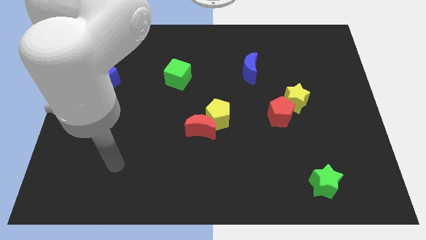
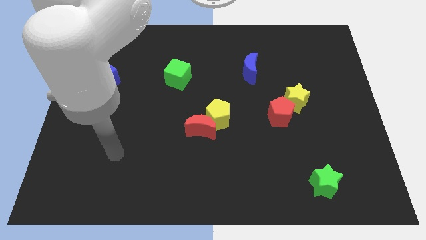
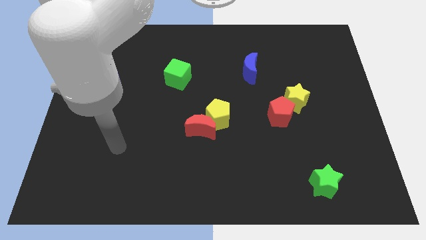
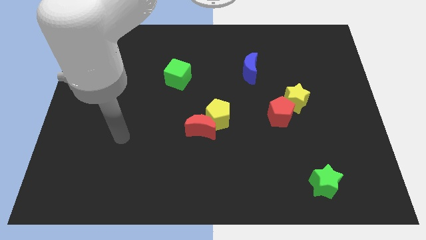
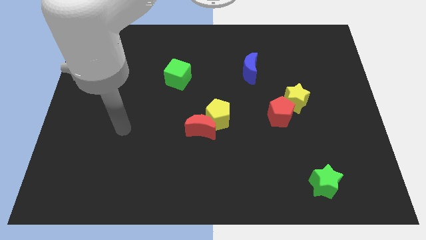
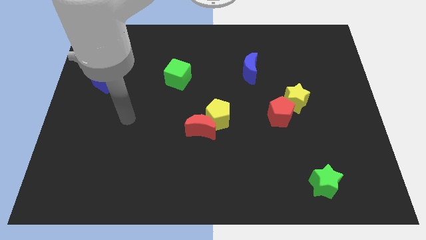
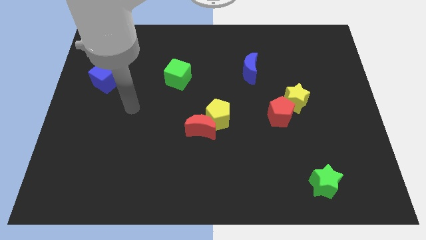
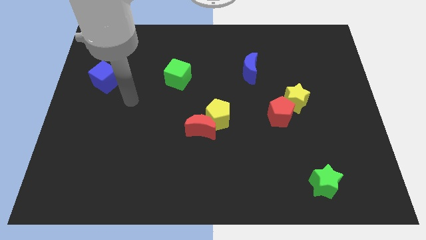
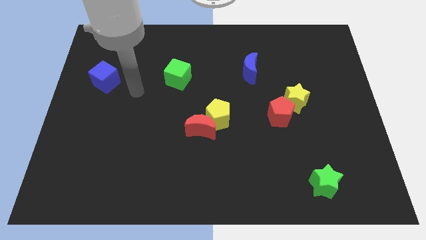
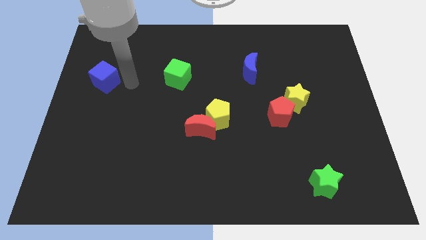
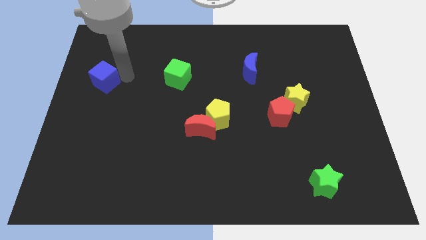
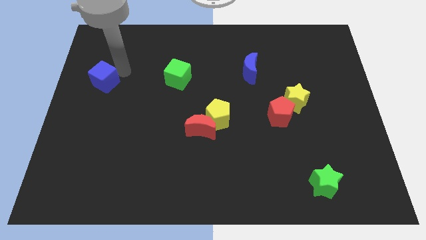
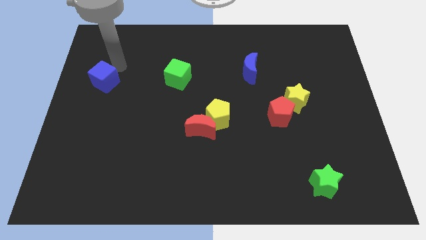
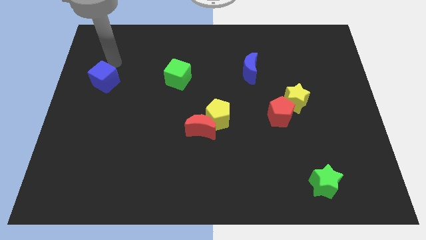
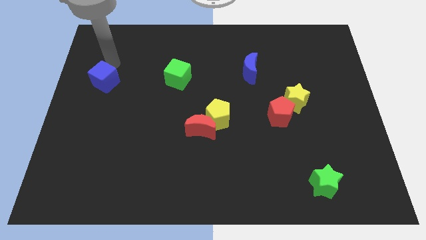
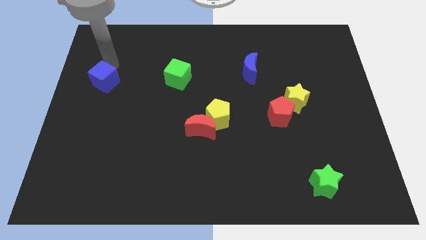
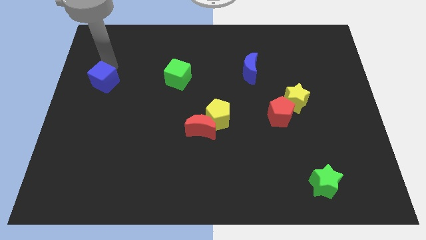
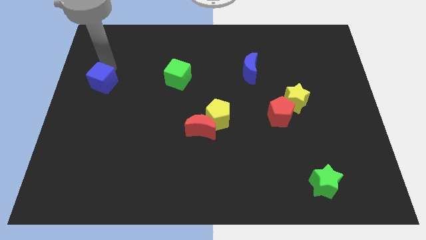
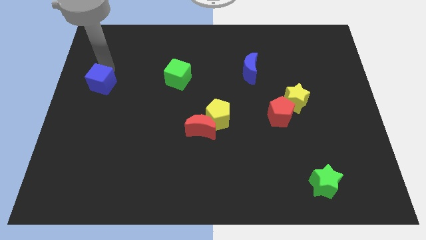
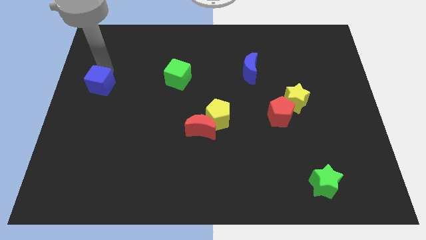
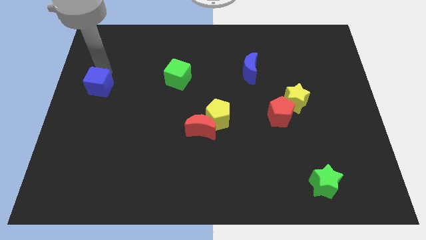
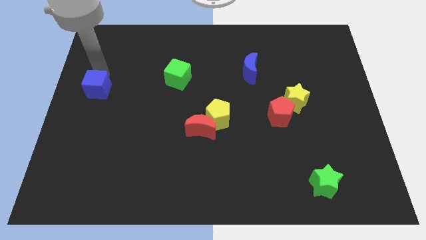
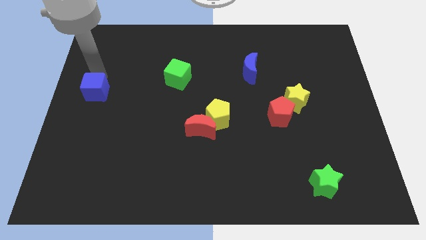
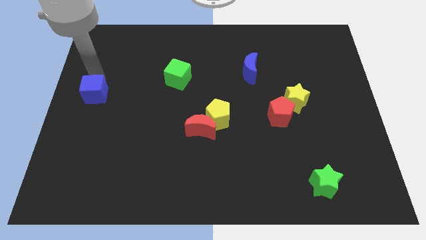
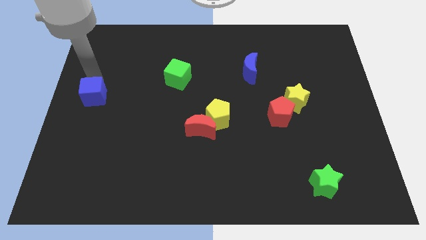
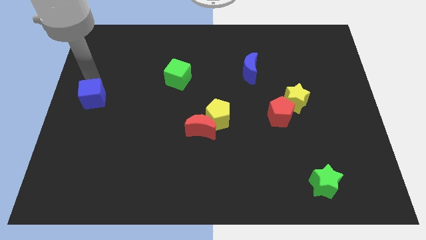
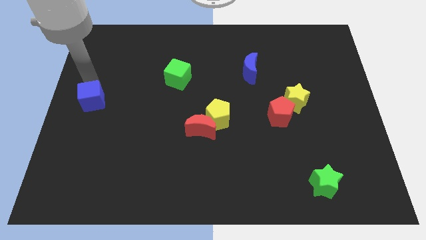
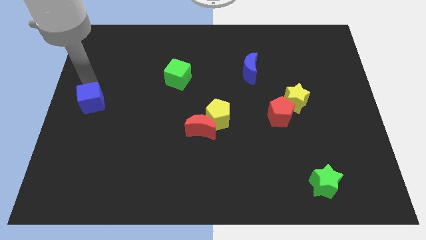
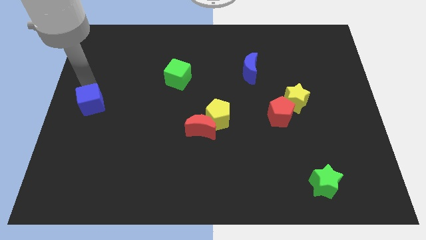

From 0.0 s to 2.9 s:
move the blue cube a little bit downwards

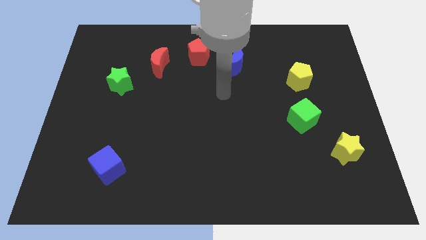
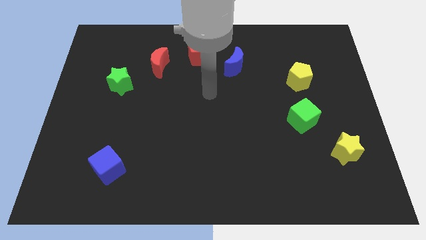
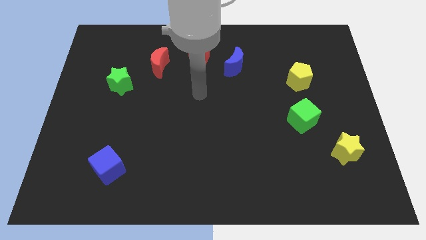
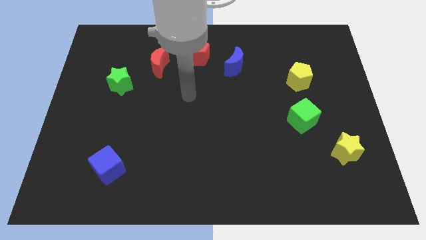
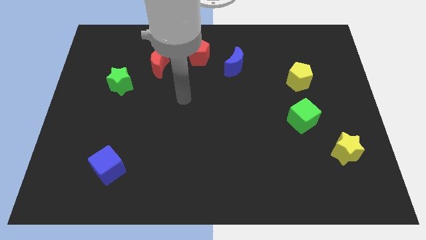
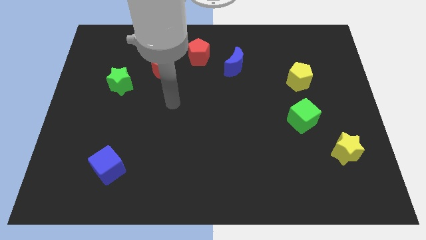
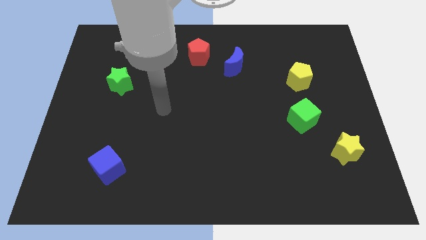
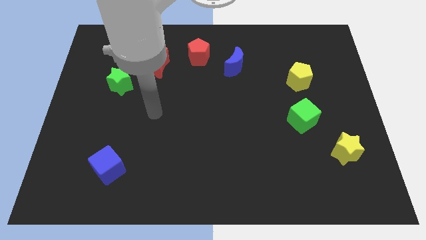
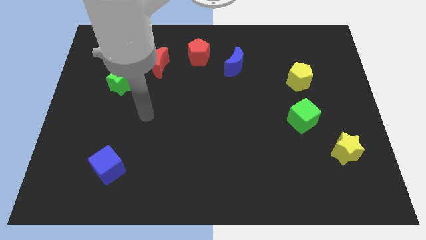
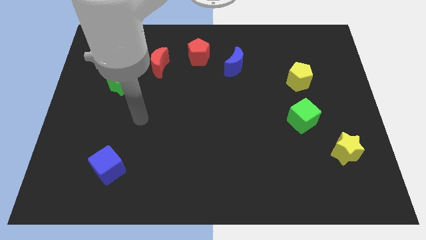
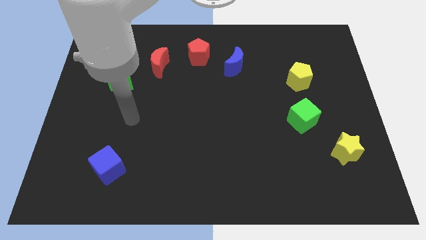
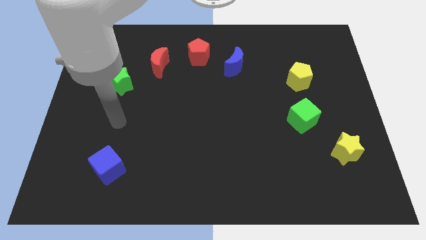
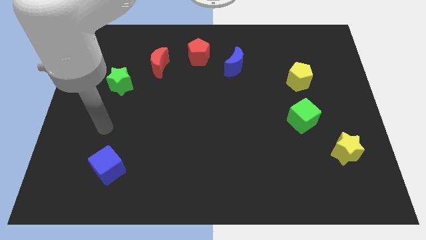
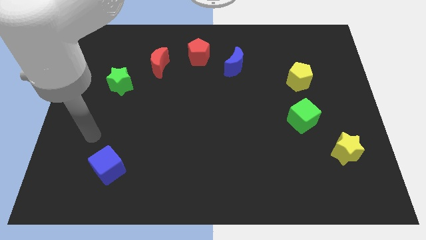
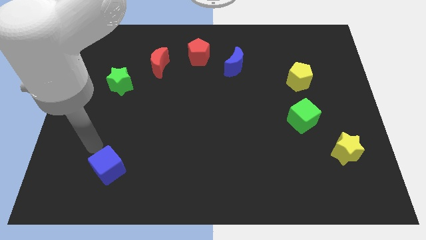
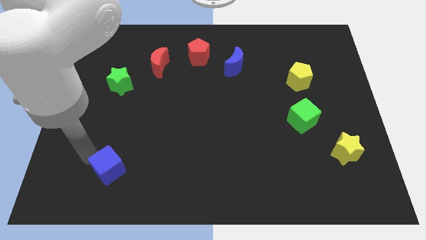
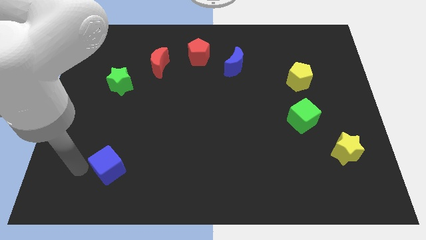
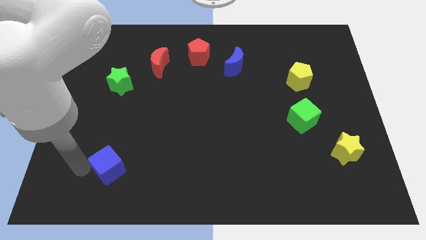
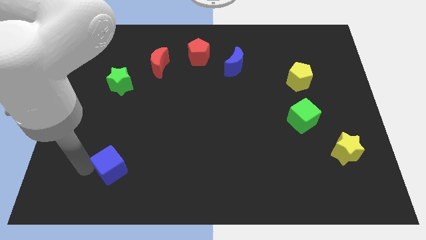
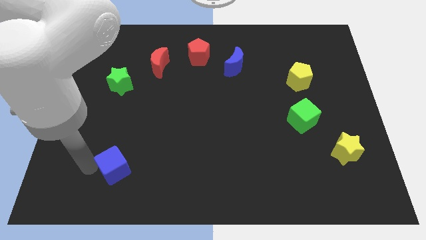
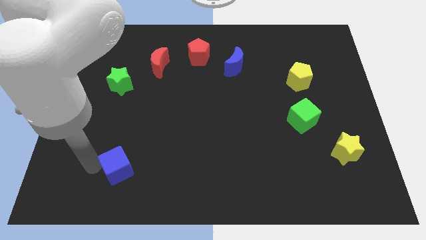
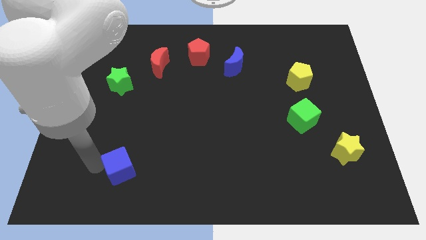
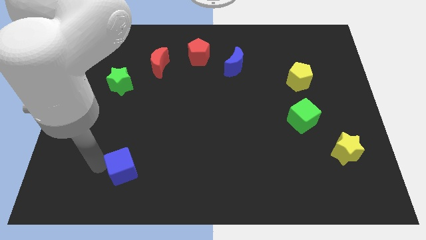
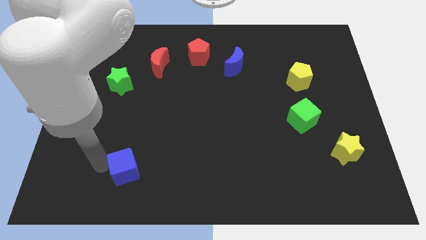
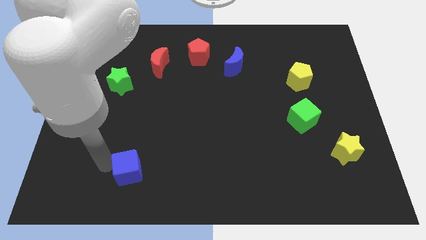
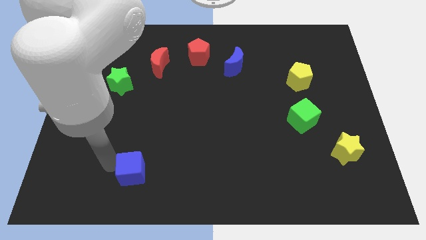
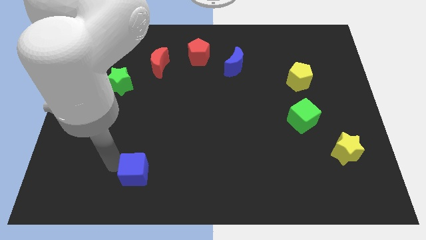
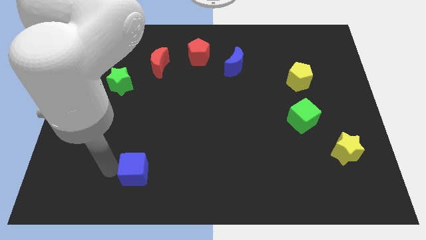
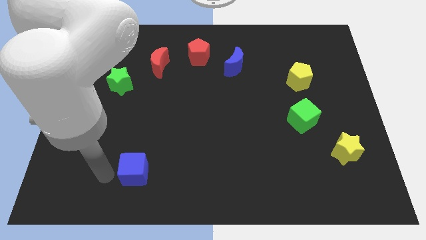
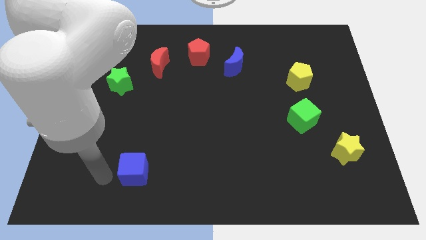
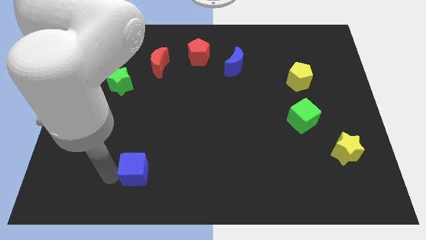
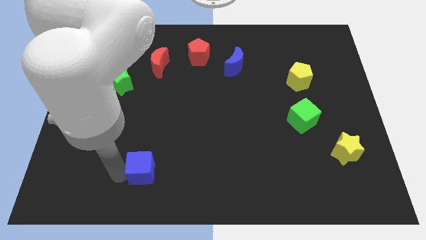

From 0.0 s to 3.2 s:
slide the blue cube right a bit

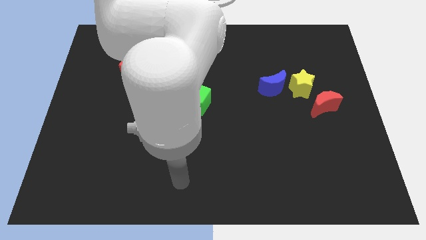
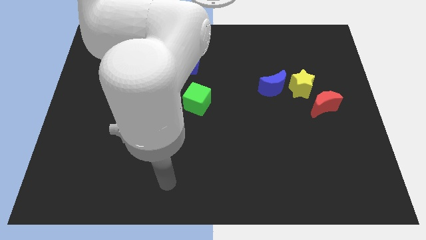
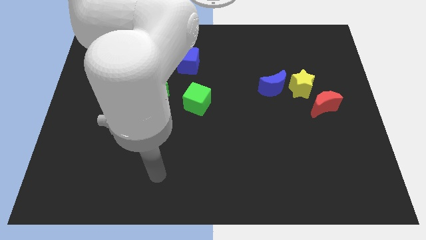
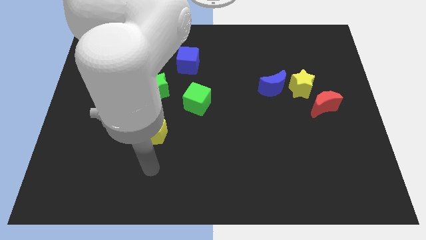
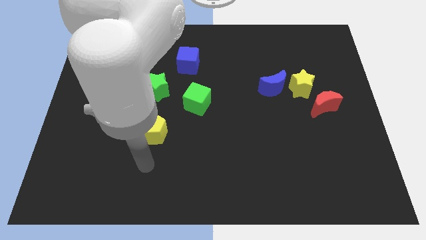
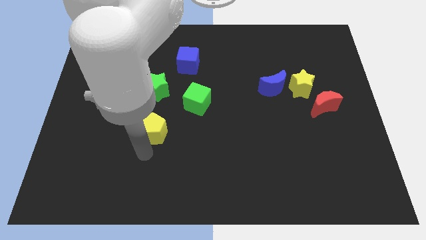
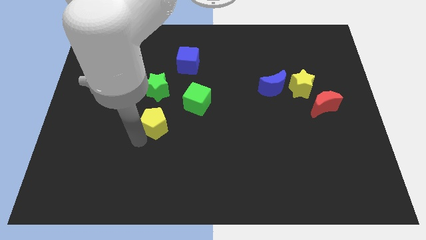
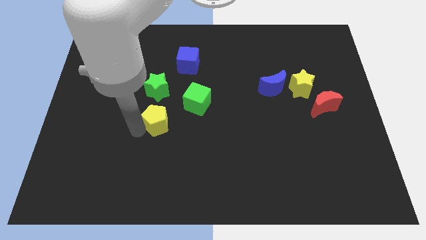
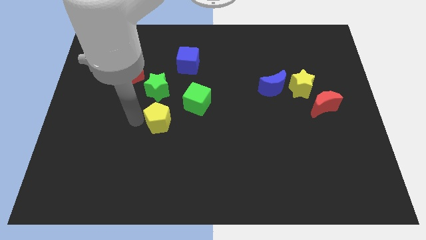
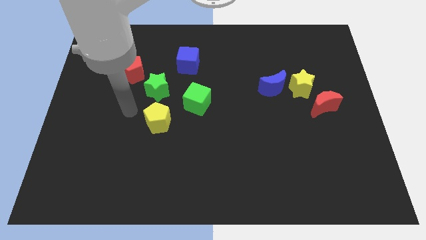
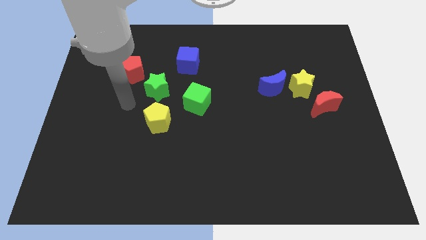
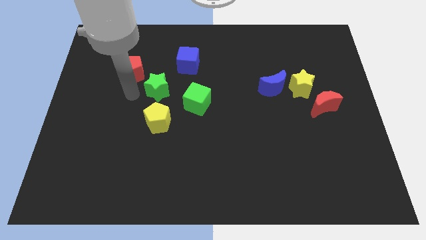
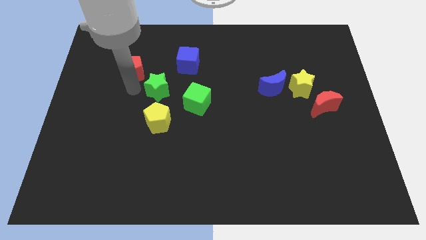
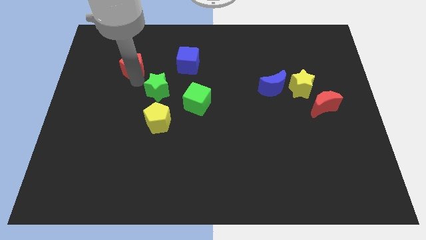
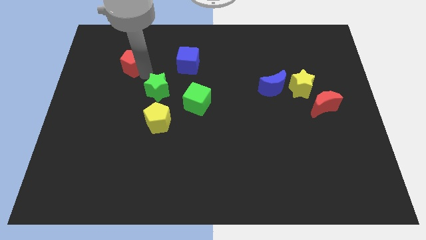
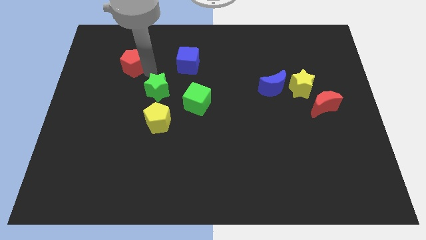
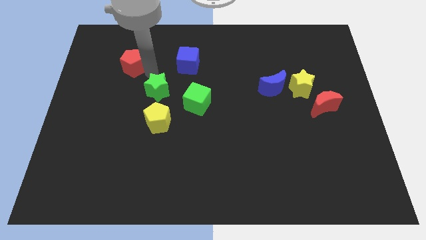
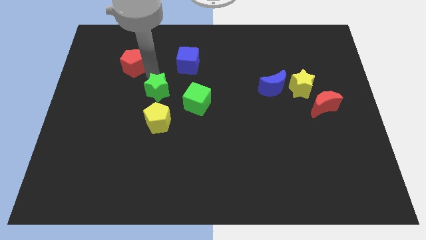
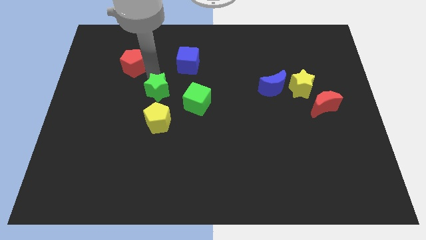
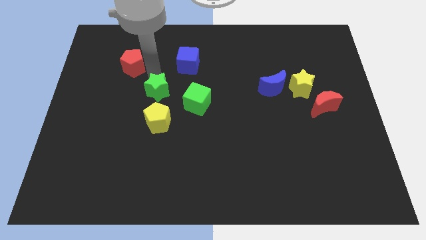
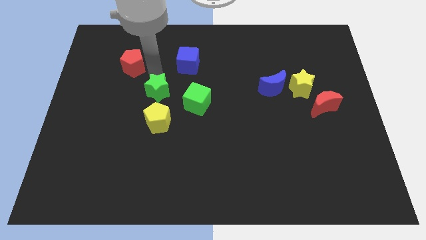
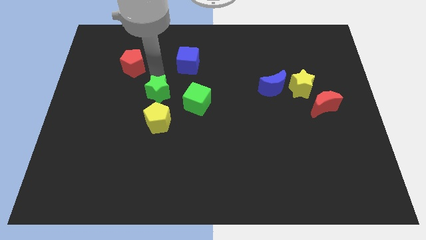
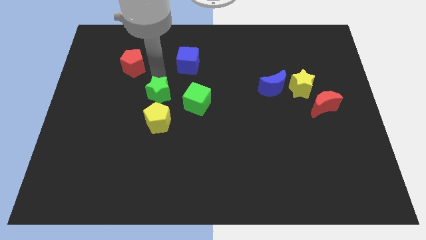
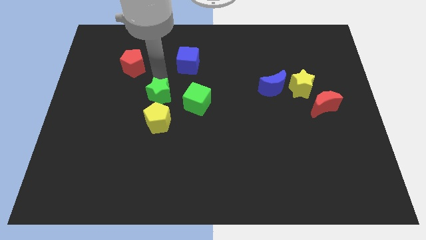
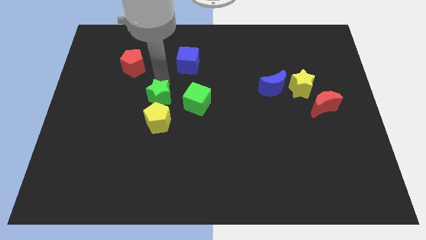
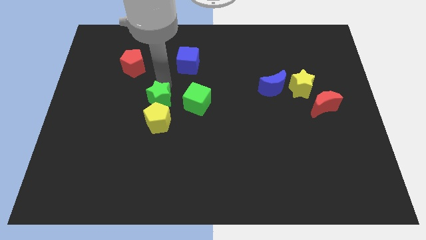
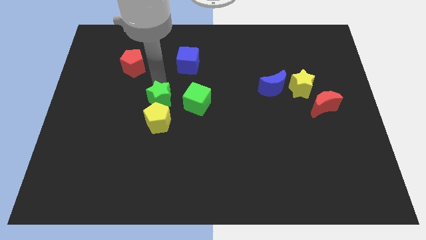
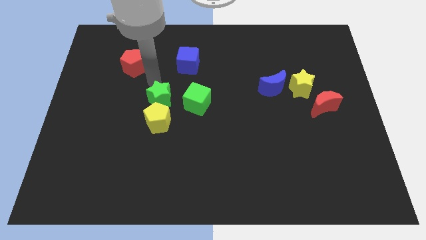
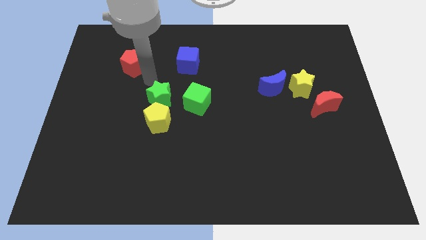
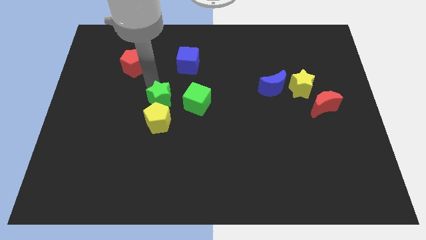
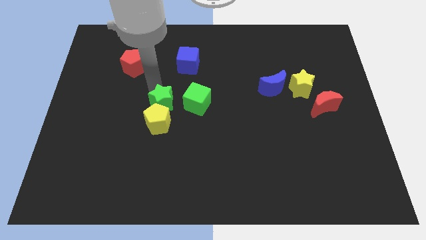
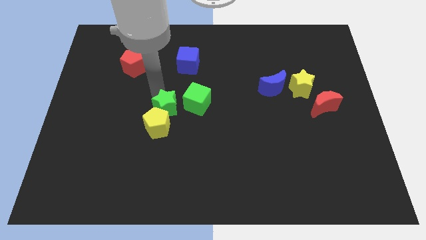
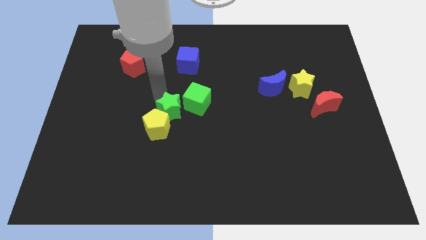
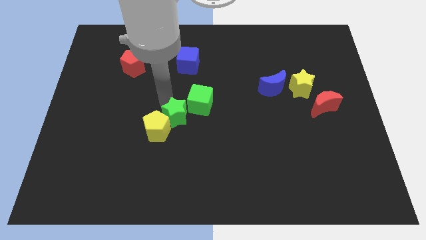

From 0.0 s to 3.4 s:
slightly push the green star downwards
